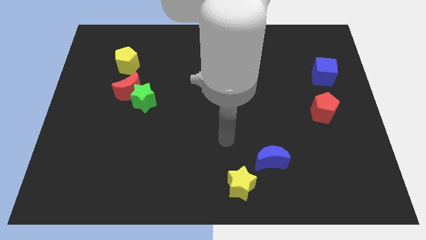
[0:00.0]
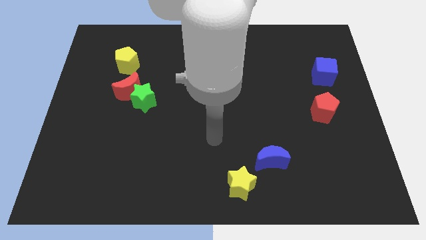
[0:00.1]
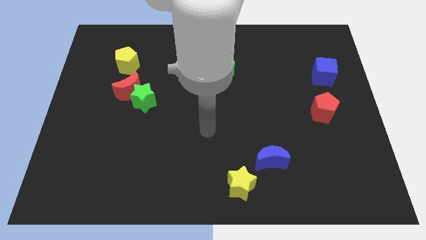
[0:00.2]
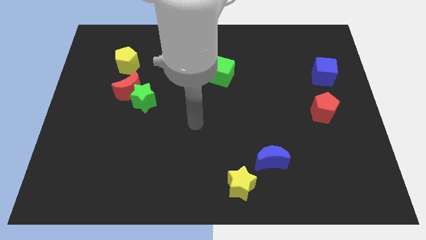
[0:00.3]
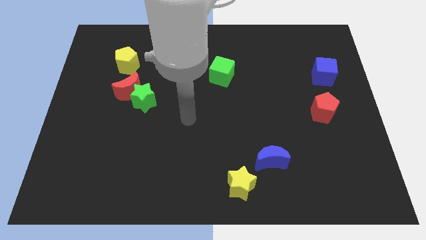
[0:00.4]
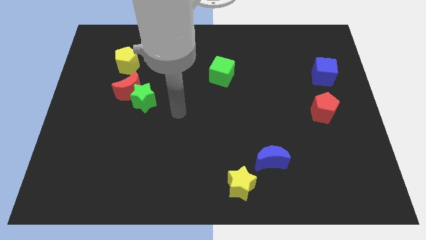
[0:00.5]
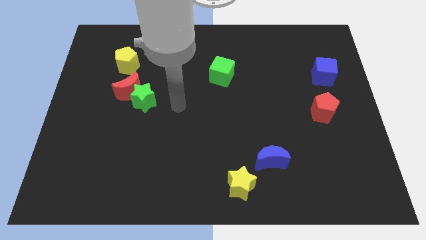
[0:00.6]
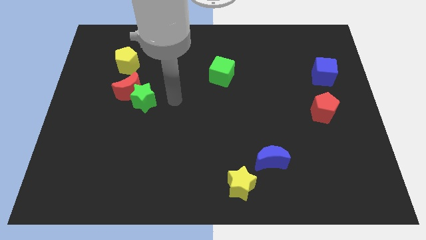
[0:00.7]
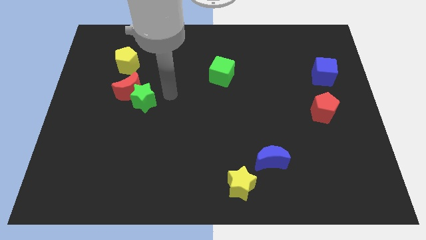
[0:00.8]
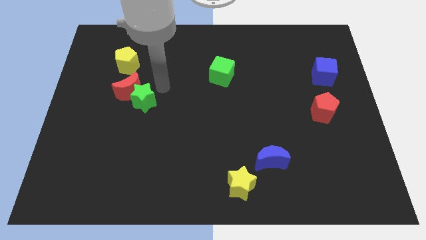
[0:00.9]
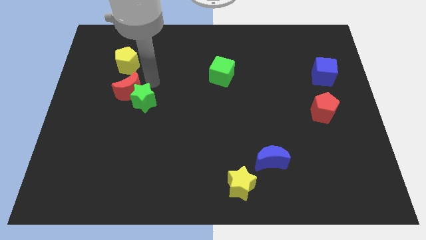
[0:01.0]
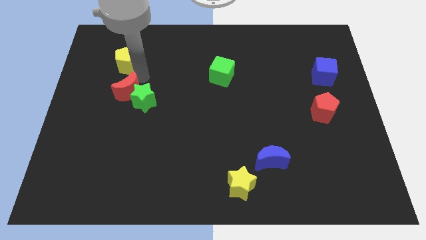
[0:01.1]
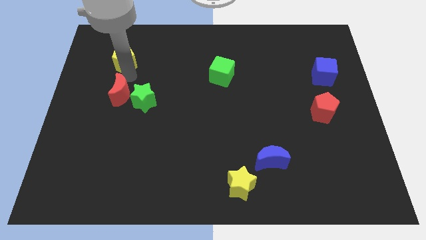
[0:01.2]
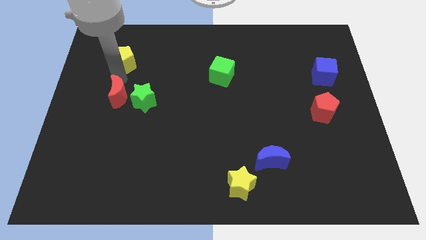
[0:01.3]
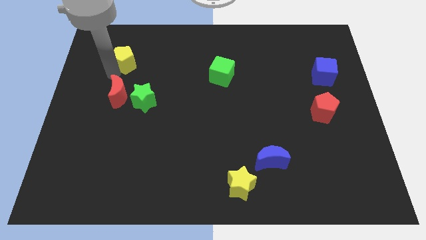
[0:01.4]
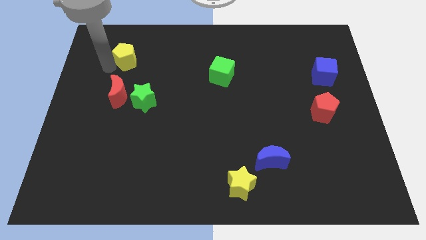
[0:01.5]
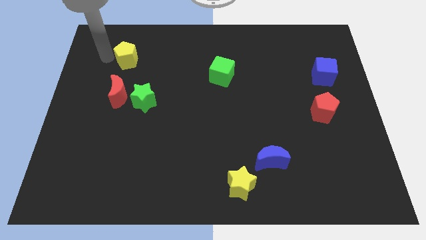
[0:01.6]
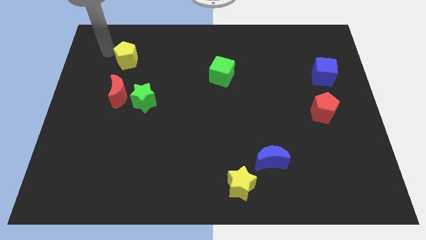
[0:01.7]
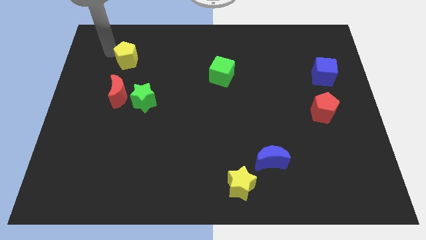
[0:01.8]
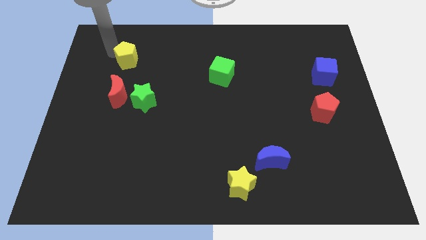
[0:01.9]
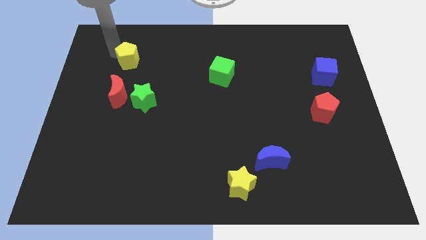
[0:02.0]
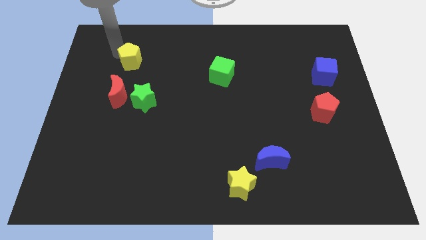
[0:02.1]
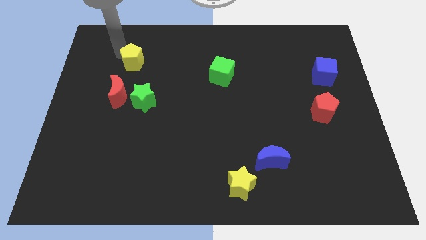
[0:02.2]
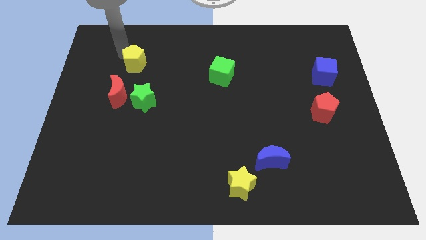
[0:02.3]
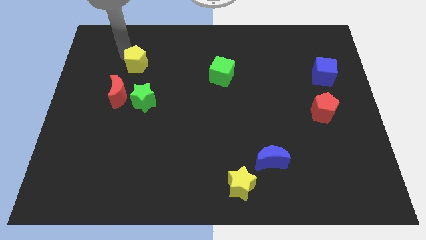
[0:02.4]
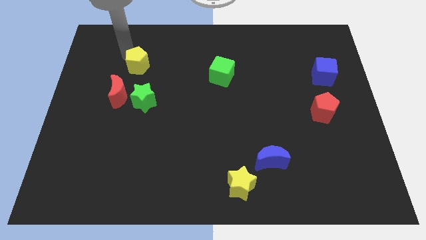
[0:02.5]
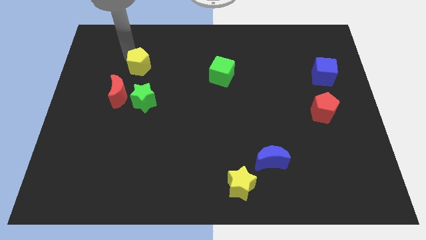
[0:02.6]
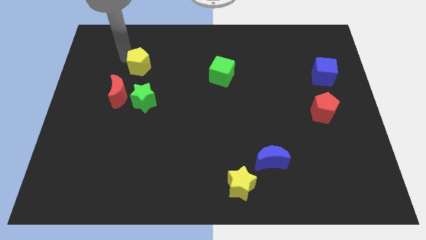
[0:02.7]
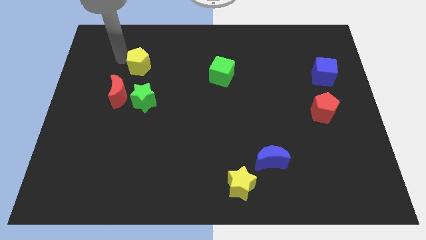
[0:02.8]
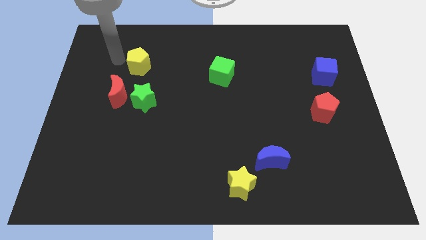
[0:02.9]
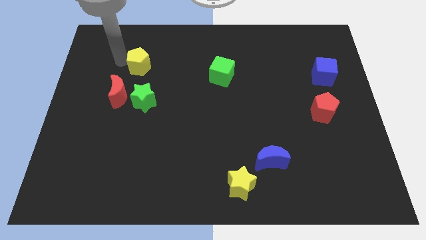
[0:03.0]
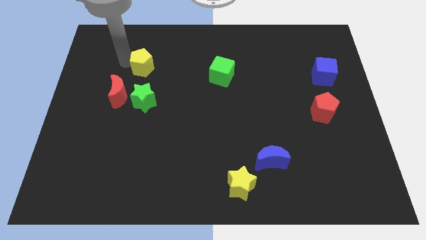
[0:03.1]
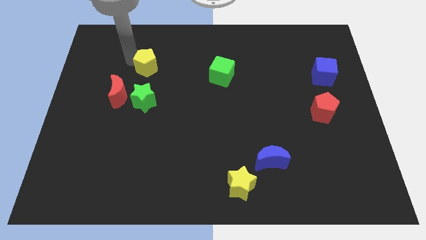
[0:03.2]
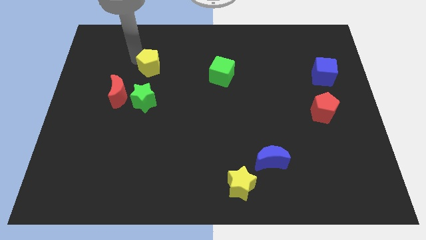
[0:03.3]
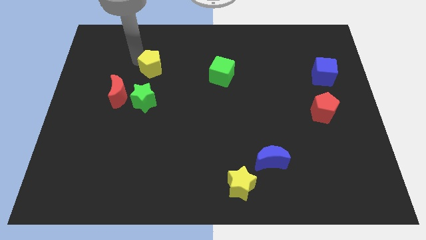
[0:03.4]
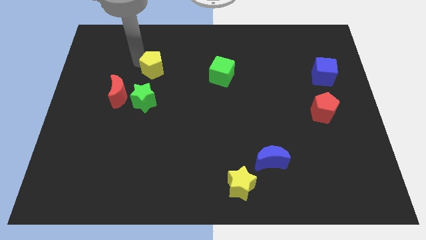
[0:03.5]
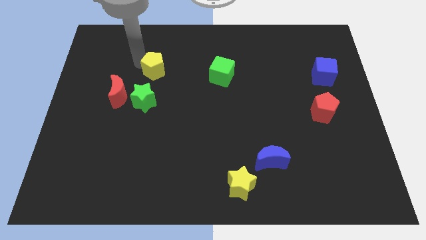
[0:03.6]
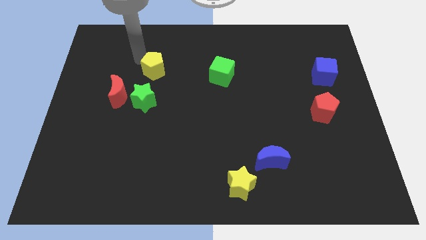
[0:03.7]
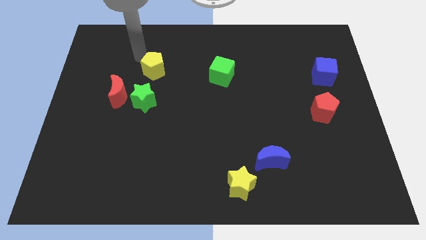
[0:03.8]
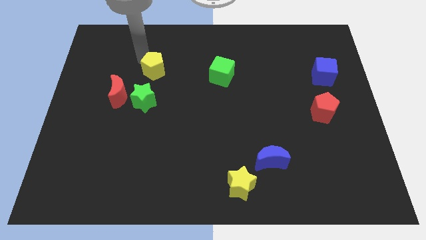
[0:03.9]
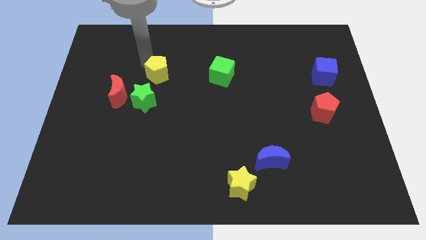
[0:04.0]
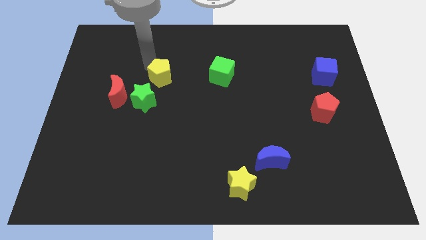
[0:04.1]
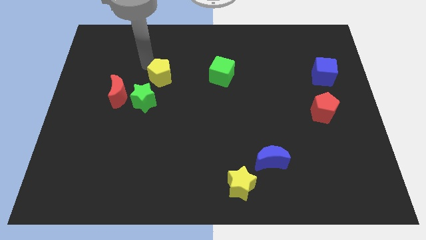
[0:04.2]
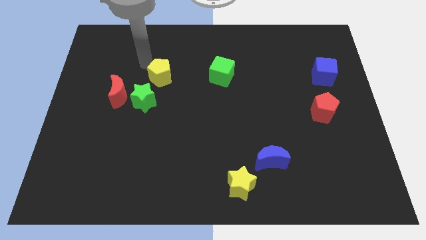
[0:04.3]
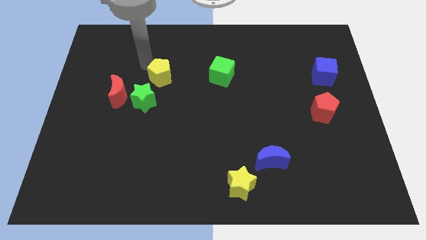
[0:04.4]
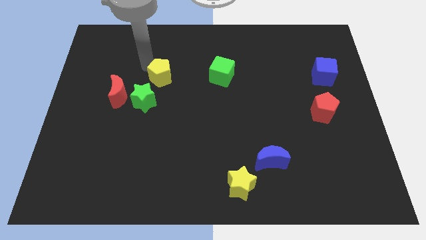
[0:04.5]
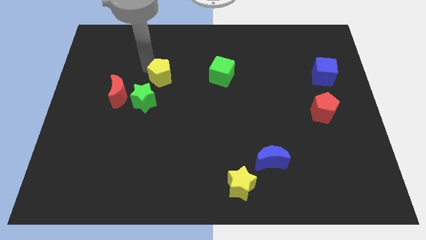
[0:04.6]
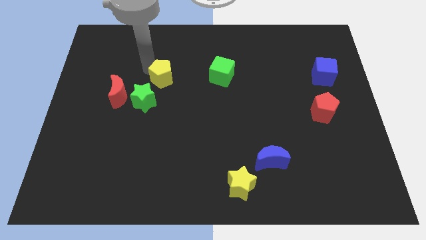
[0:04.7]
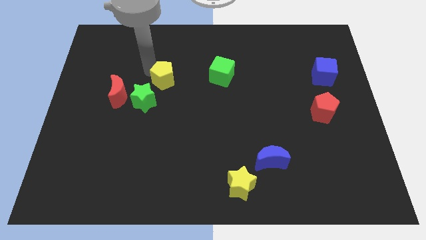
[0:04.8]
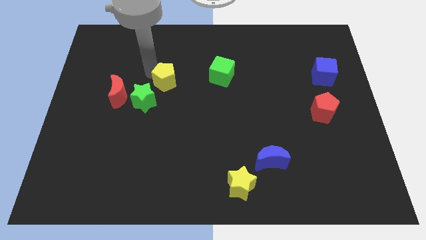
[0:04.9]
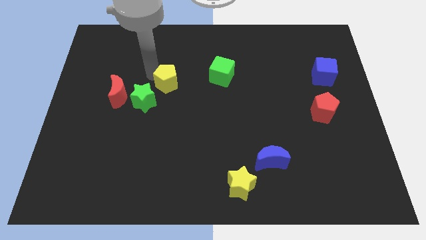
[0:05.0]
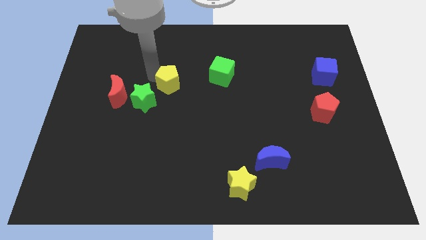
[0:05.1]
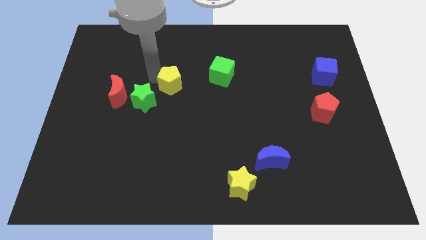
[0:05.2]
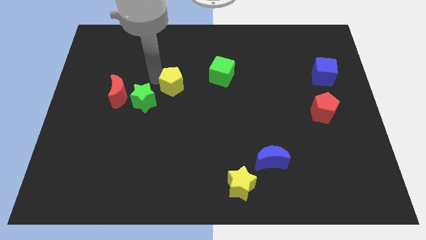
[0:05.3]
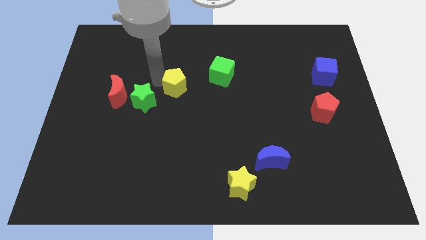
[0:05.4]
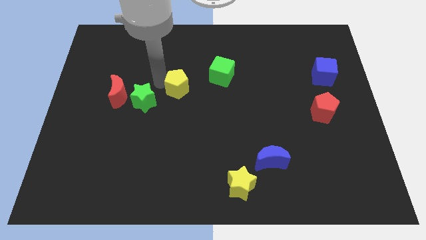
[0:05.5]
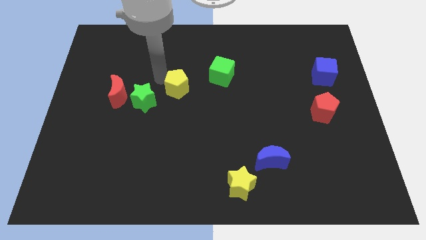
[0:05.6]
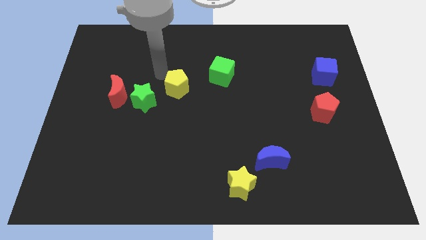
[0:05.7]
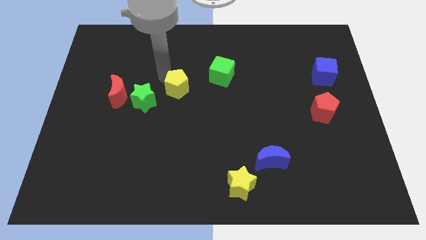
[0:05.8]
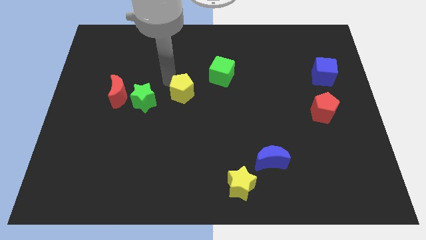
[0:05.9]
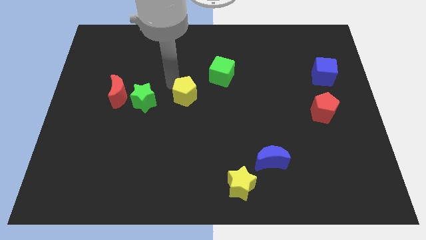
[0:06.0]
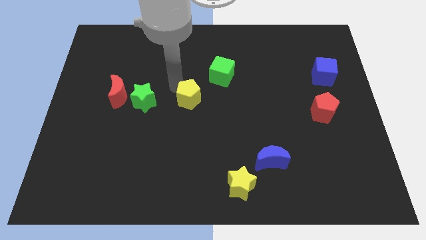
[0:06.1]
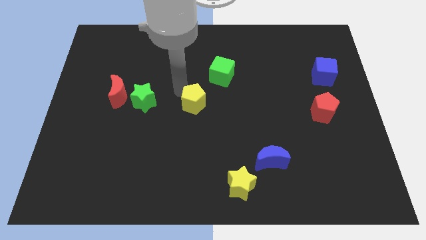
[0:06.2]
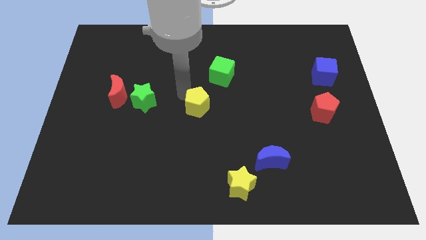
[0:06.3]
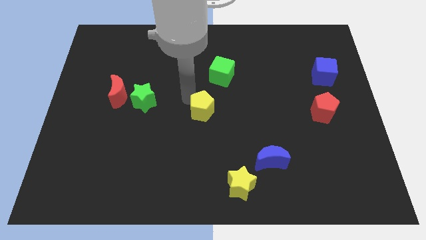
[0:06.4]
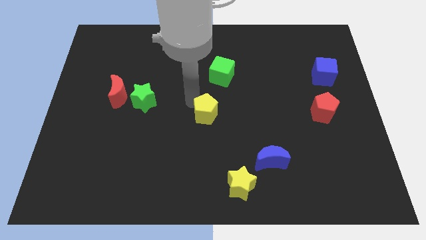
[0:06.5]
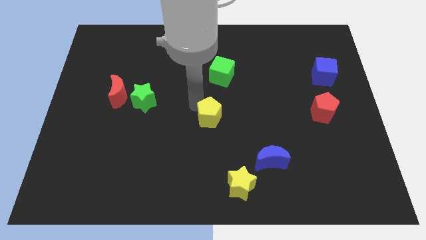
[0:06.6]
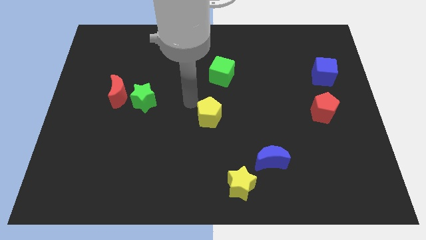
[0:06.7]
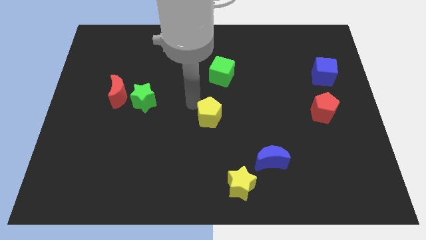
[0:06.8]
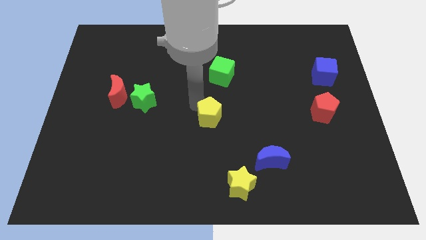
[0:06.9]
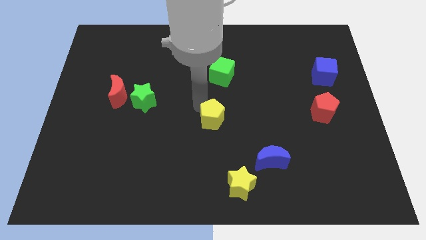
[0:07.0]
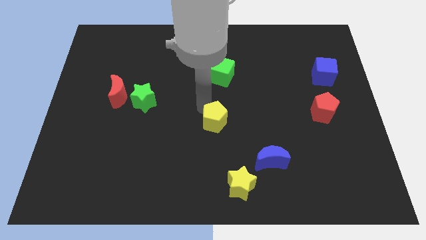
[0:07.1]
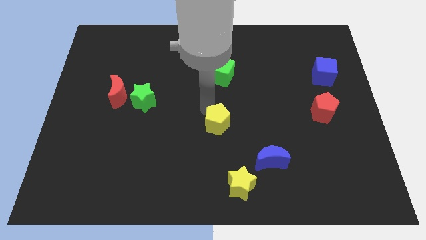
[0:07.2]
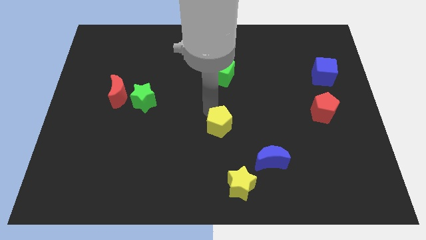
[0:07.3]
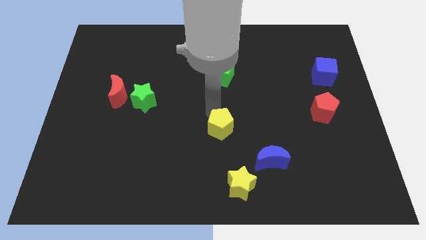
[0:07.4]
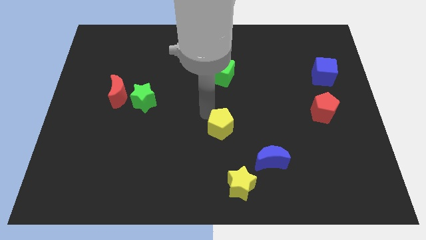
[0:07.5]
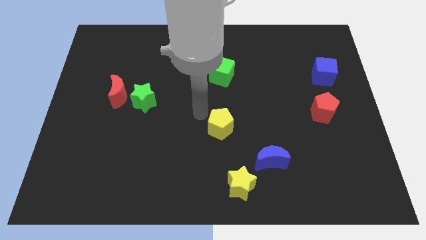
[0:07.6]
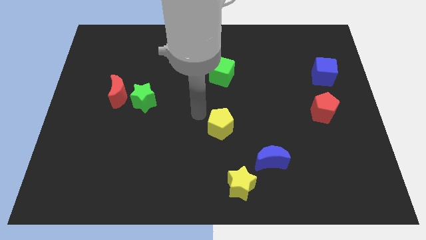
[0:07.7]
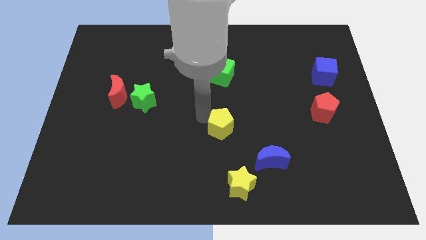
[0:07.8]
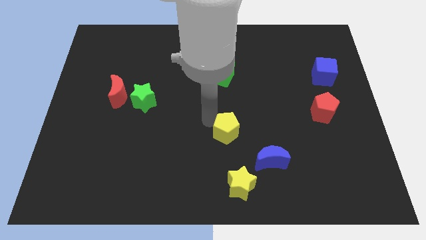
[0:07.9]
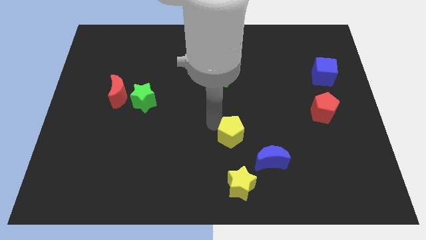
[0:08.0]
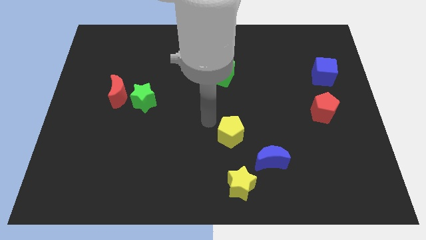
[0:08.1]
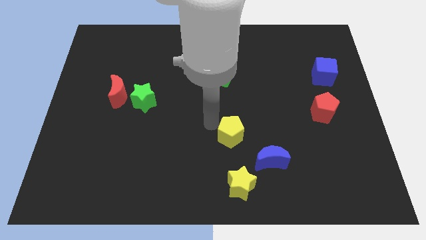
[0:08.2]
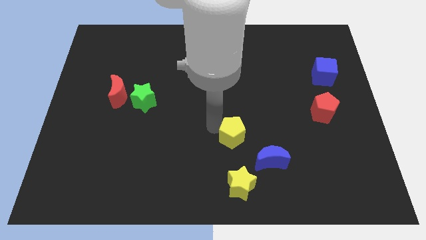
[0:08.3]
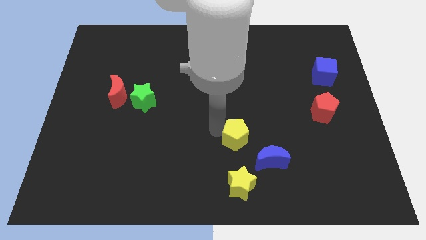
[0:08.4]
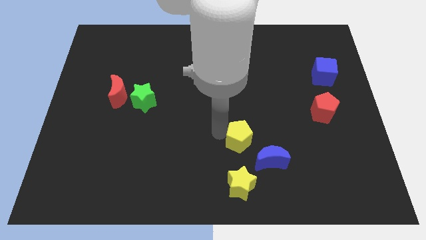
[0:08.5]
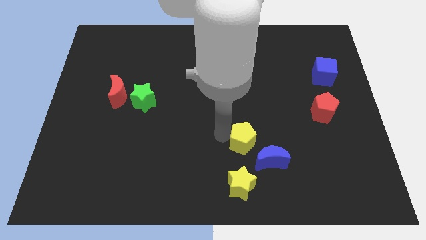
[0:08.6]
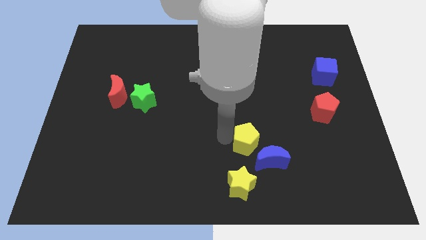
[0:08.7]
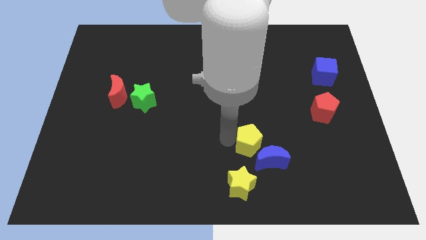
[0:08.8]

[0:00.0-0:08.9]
put the yellow pentagon to the blue moon
